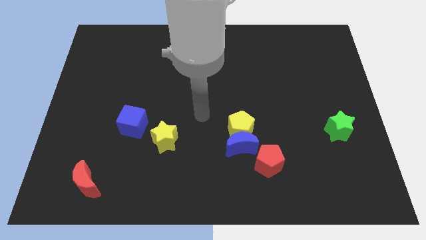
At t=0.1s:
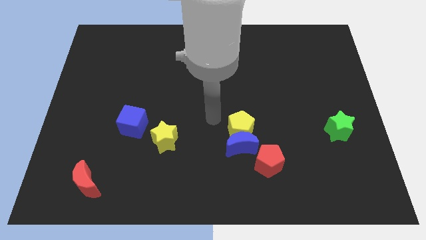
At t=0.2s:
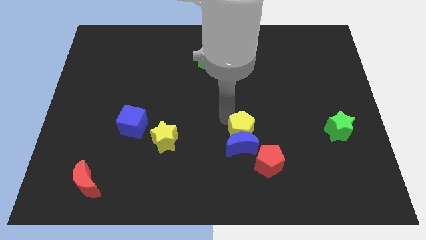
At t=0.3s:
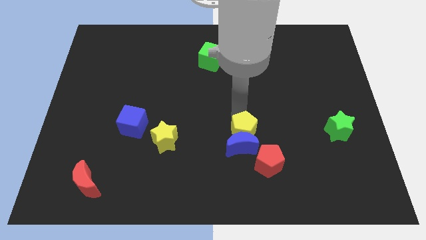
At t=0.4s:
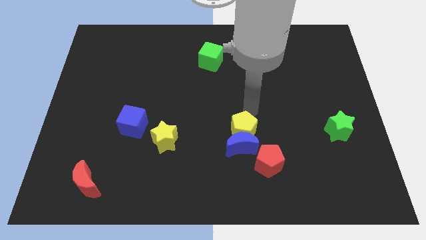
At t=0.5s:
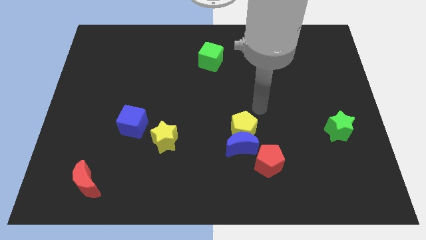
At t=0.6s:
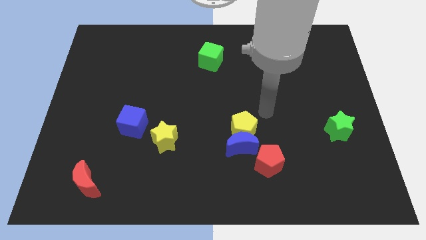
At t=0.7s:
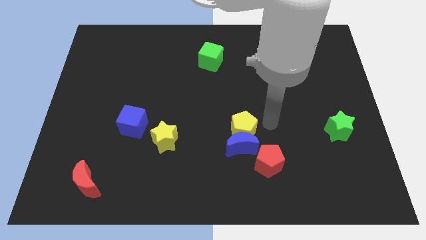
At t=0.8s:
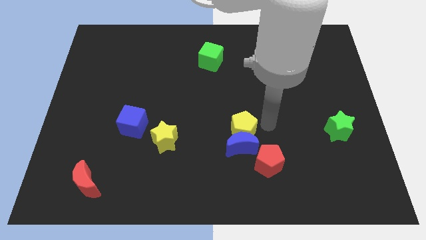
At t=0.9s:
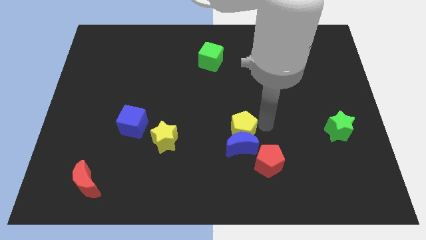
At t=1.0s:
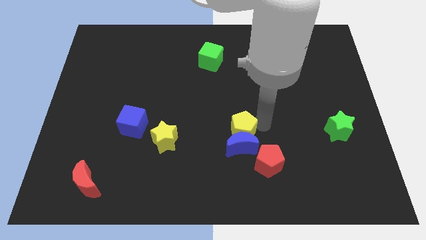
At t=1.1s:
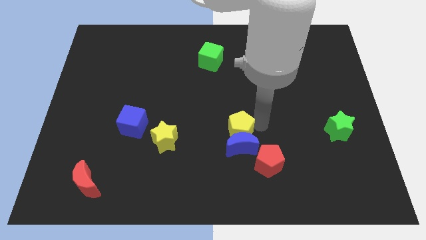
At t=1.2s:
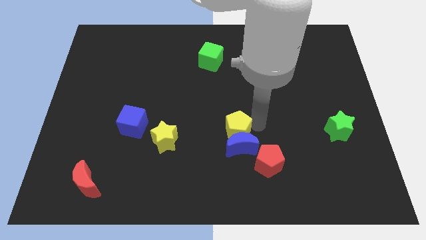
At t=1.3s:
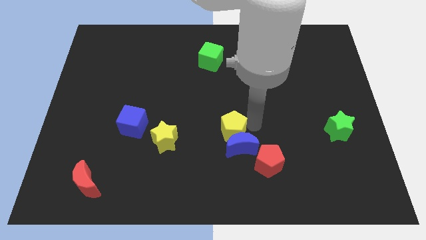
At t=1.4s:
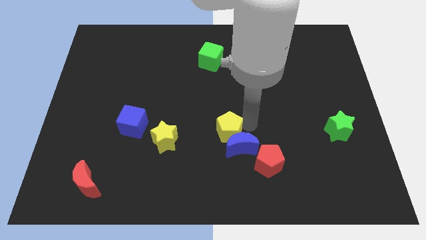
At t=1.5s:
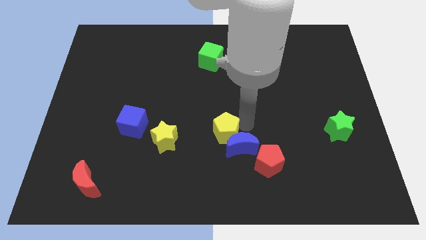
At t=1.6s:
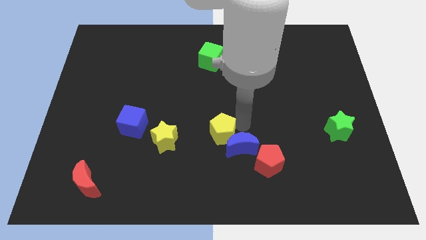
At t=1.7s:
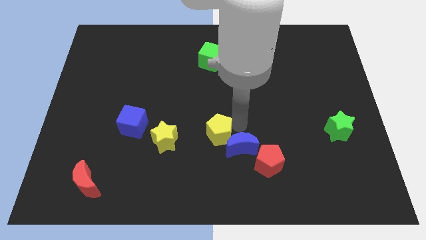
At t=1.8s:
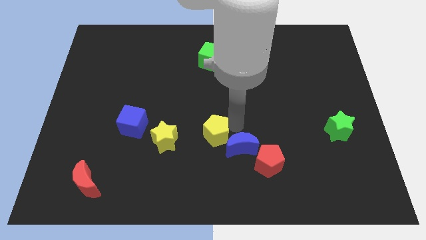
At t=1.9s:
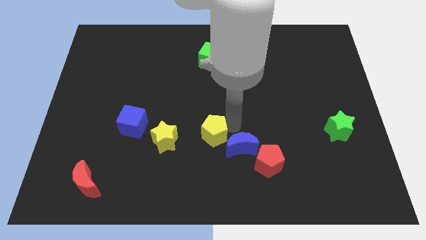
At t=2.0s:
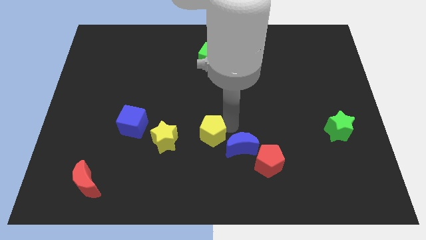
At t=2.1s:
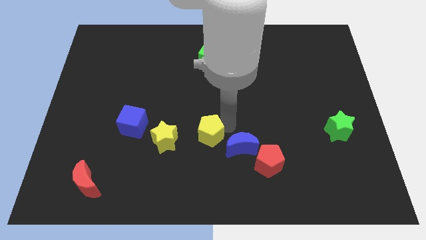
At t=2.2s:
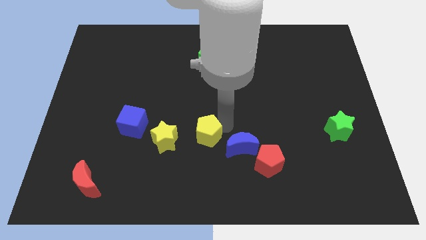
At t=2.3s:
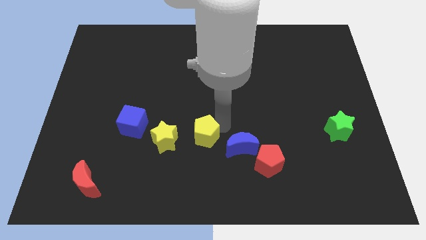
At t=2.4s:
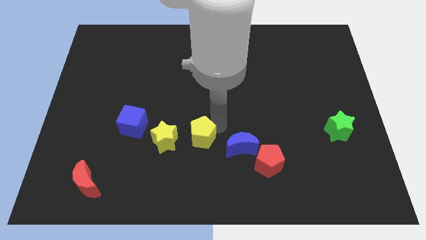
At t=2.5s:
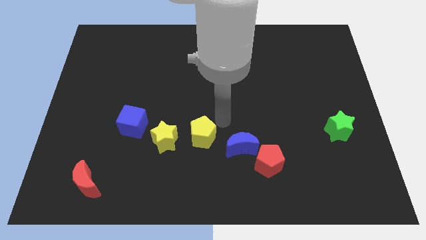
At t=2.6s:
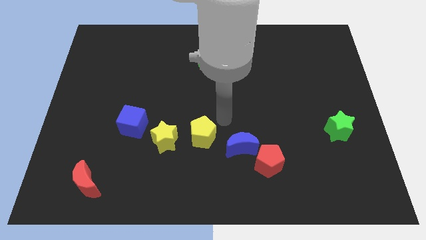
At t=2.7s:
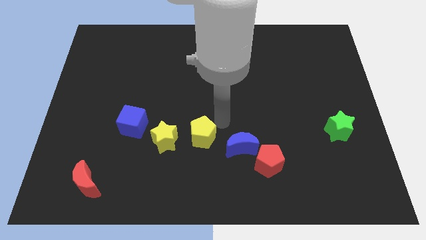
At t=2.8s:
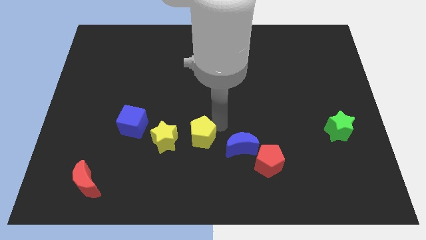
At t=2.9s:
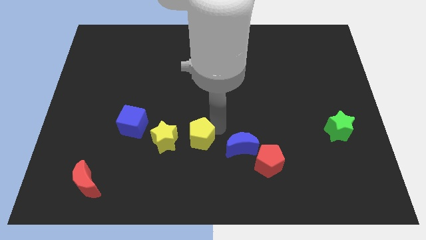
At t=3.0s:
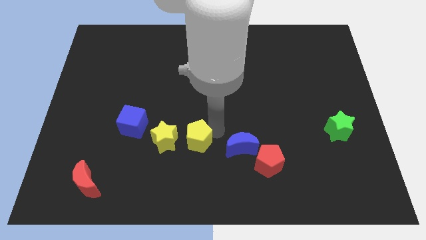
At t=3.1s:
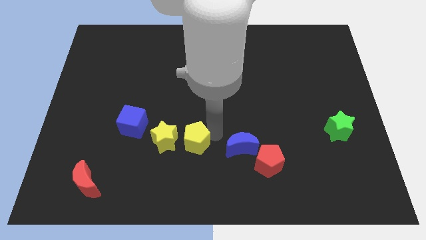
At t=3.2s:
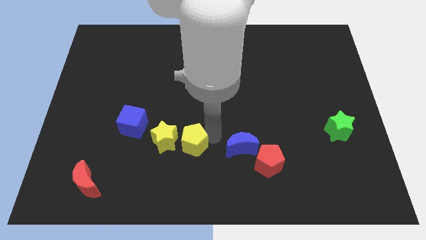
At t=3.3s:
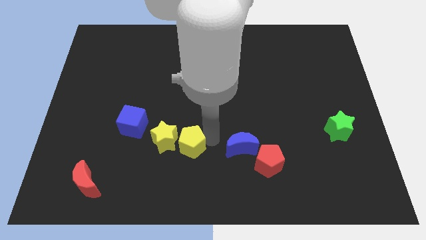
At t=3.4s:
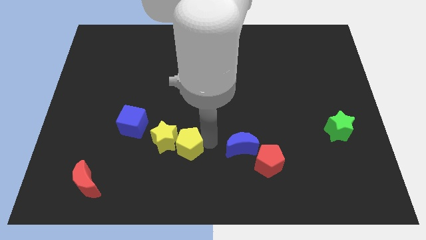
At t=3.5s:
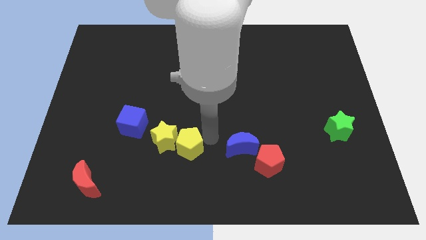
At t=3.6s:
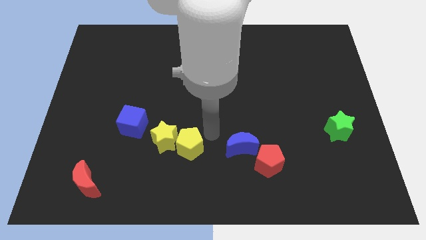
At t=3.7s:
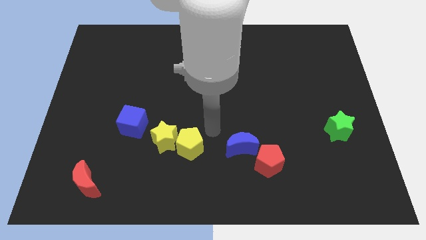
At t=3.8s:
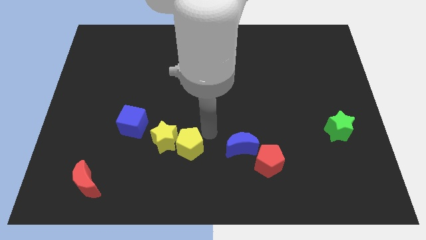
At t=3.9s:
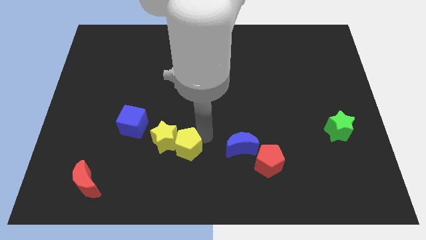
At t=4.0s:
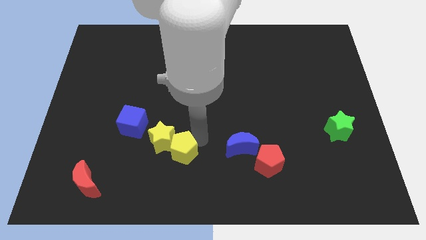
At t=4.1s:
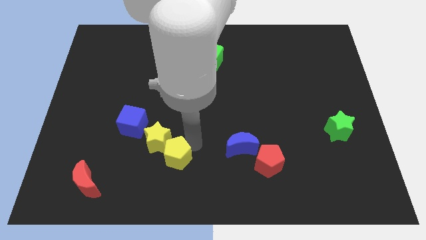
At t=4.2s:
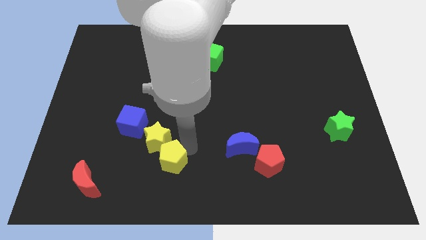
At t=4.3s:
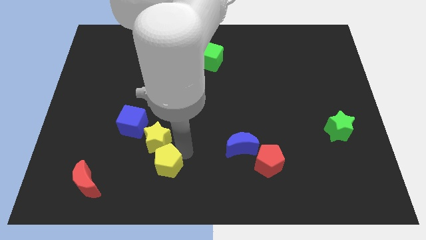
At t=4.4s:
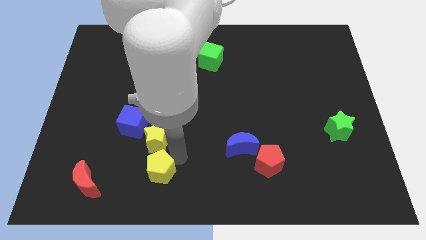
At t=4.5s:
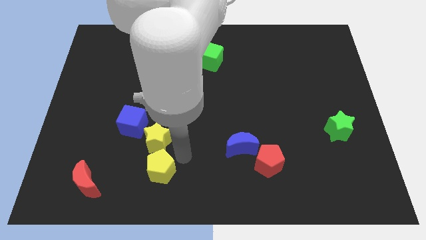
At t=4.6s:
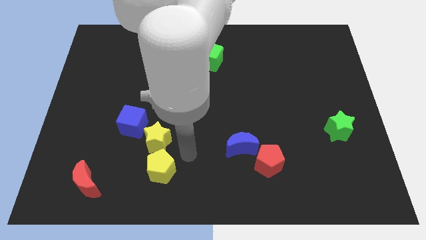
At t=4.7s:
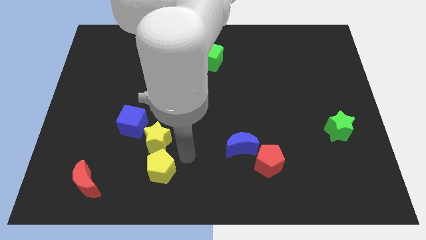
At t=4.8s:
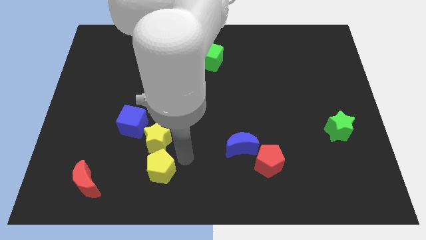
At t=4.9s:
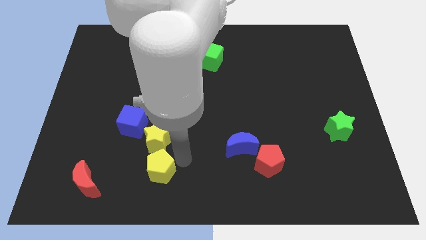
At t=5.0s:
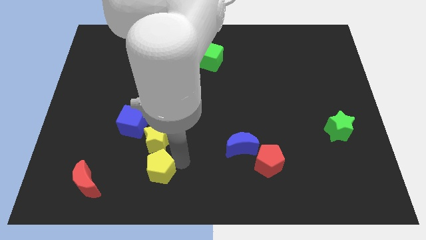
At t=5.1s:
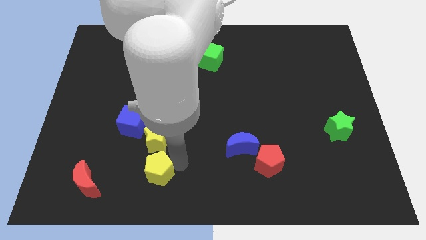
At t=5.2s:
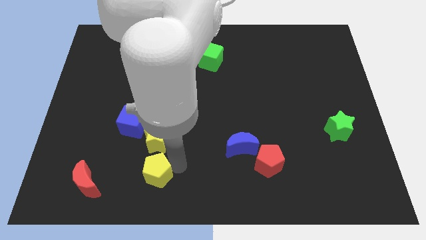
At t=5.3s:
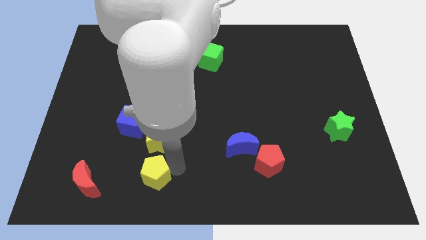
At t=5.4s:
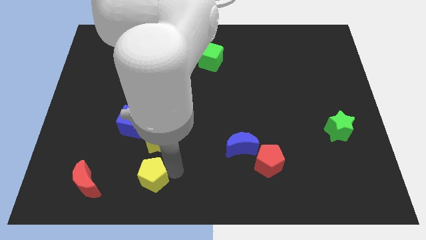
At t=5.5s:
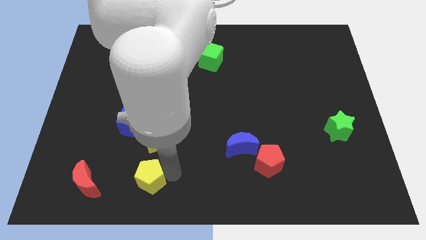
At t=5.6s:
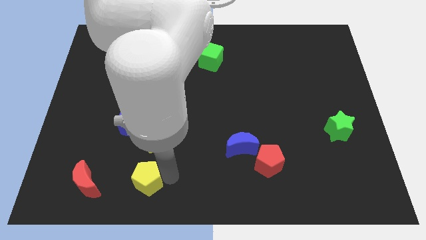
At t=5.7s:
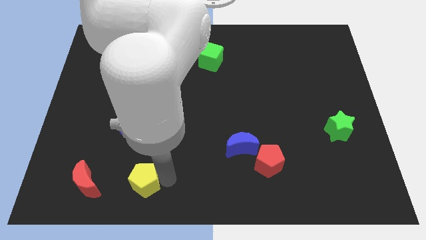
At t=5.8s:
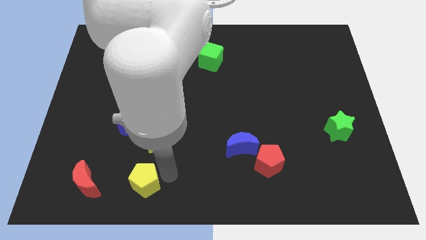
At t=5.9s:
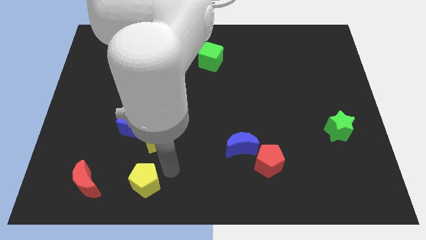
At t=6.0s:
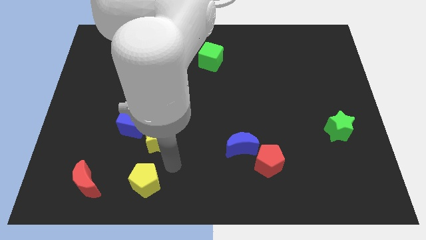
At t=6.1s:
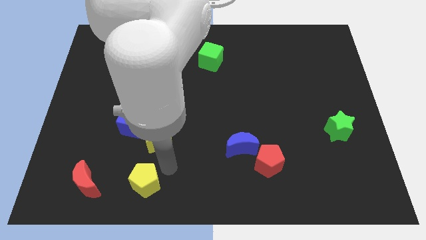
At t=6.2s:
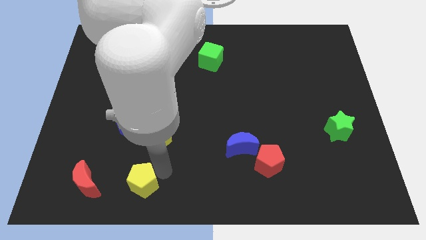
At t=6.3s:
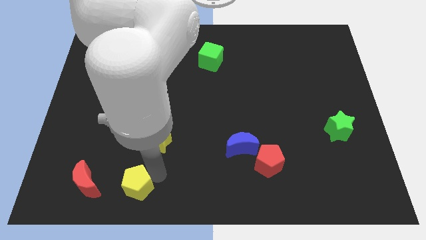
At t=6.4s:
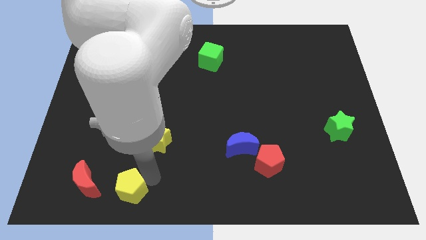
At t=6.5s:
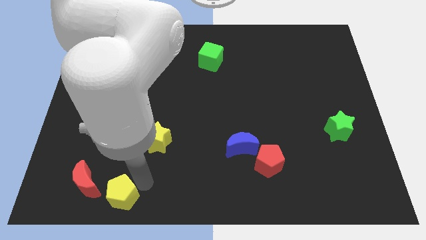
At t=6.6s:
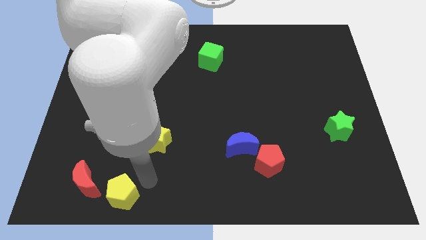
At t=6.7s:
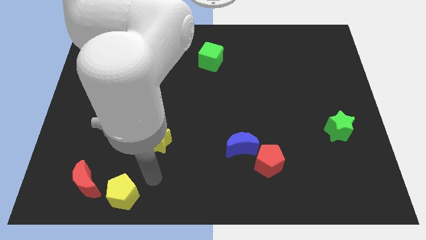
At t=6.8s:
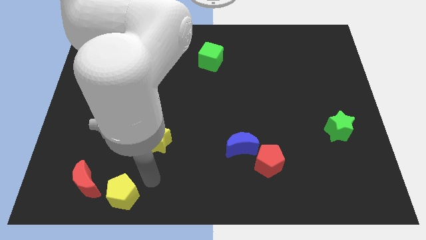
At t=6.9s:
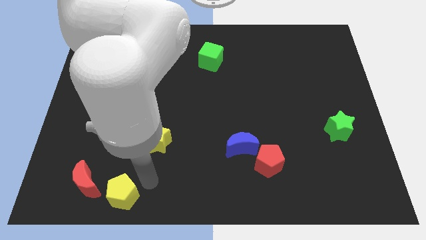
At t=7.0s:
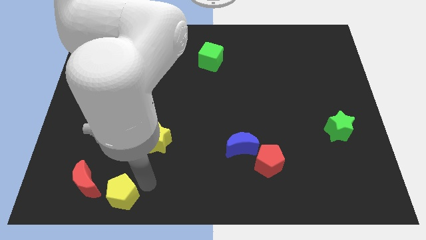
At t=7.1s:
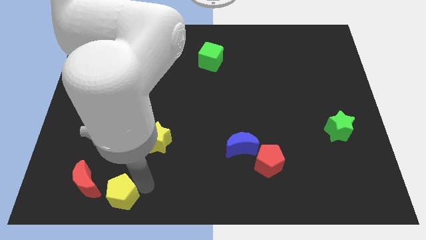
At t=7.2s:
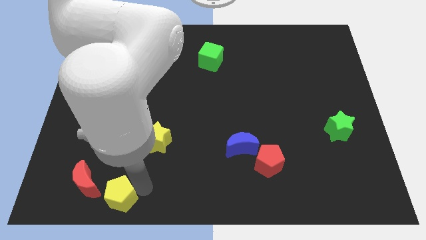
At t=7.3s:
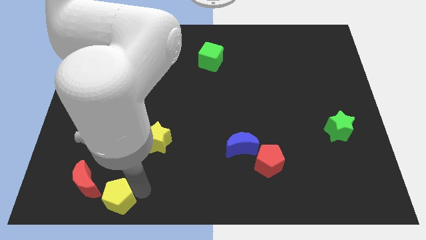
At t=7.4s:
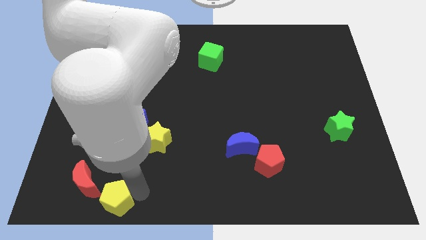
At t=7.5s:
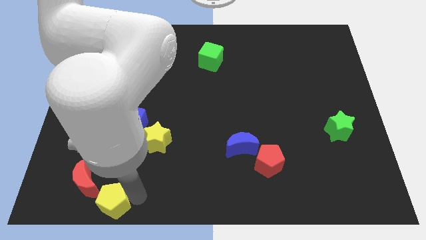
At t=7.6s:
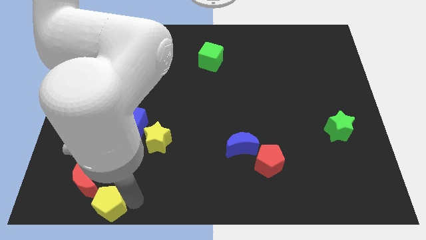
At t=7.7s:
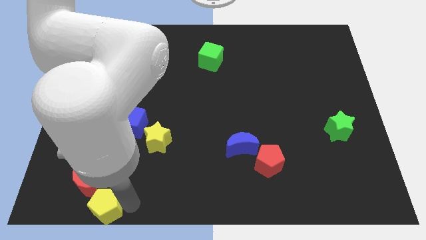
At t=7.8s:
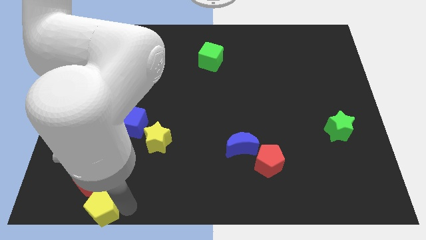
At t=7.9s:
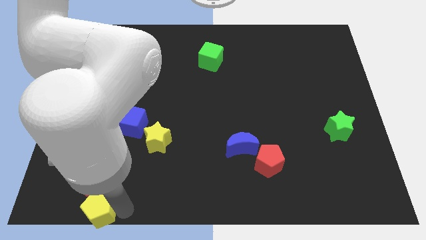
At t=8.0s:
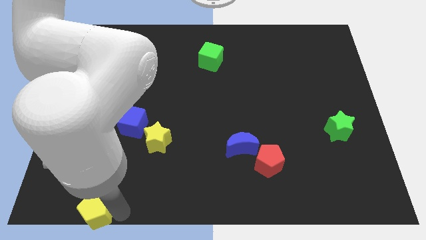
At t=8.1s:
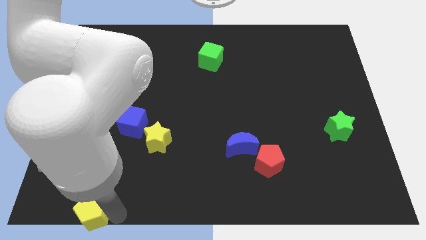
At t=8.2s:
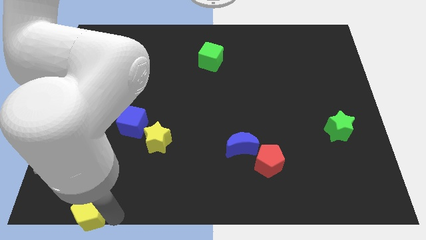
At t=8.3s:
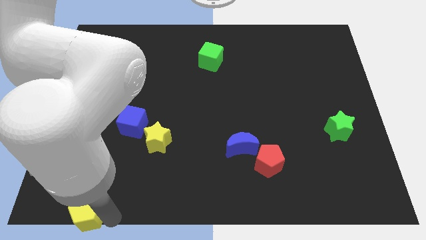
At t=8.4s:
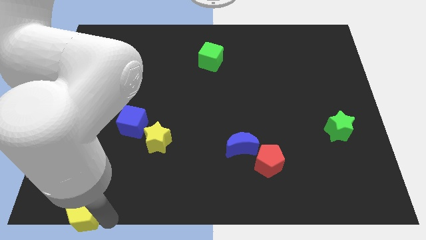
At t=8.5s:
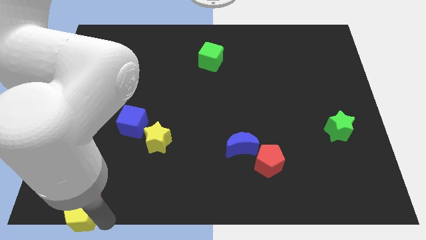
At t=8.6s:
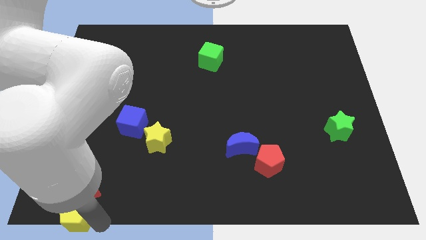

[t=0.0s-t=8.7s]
put the yellow pentagon to the bottom left corner
